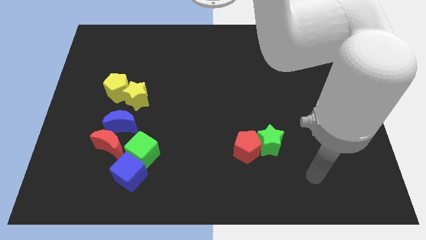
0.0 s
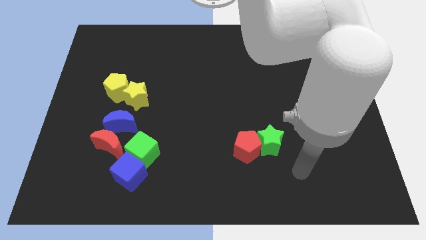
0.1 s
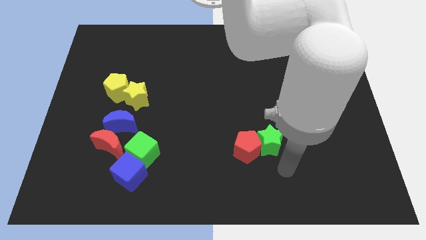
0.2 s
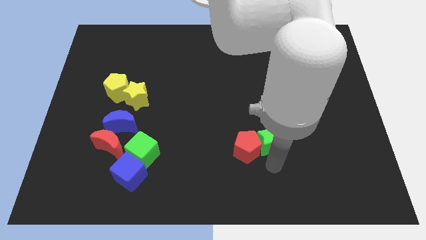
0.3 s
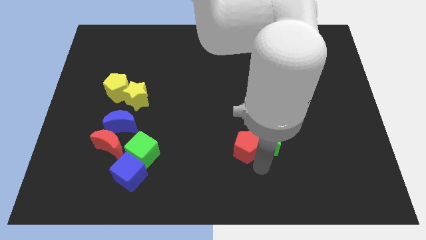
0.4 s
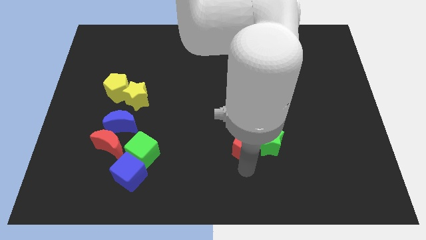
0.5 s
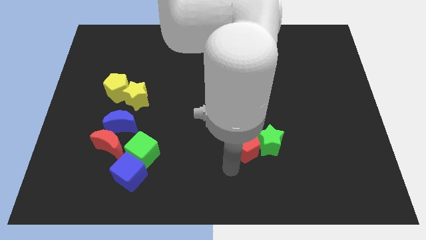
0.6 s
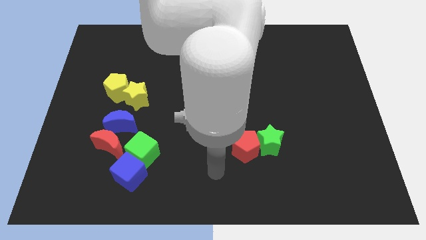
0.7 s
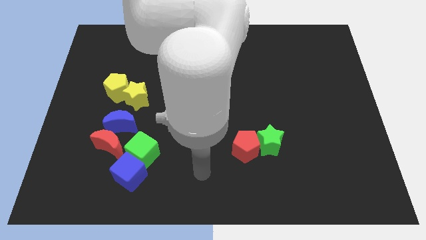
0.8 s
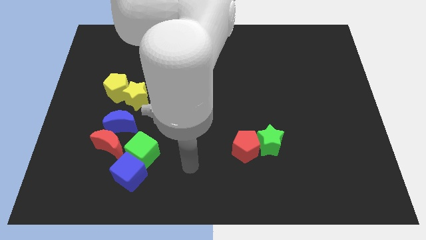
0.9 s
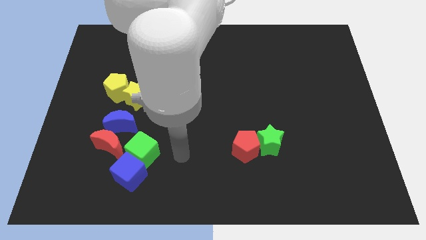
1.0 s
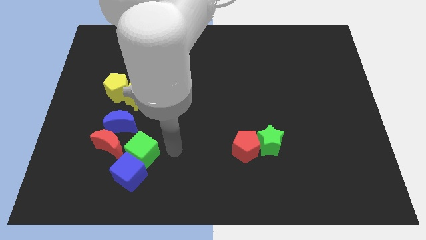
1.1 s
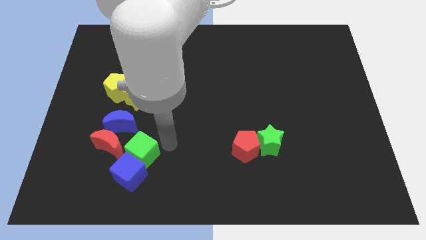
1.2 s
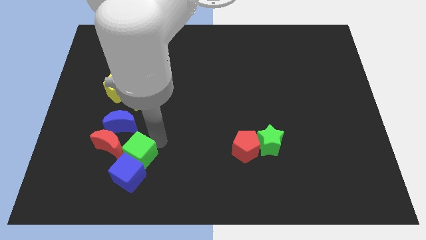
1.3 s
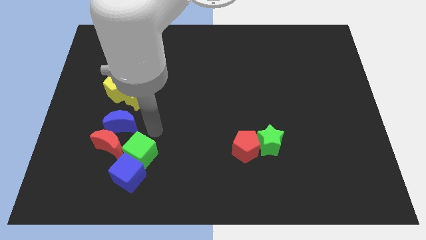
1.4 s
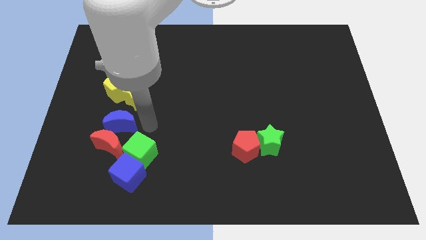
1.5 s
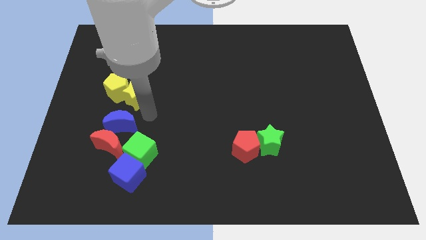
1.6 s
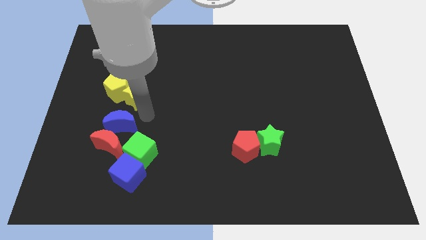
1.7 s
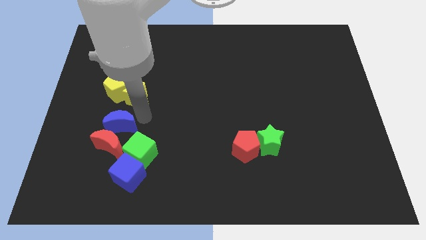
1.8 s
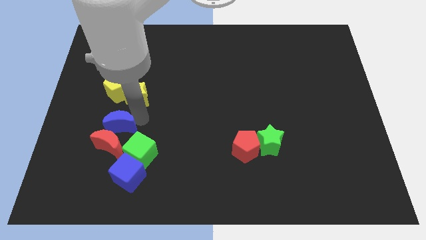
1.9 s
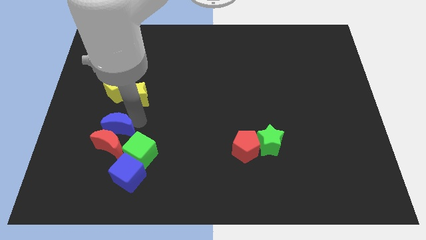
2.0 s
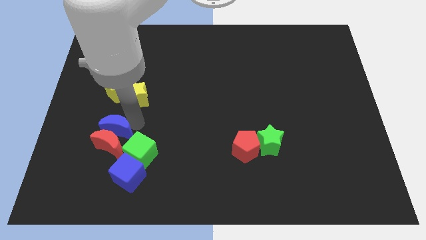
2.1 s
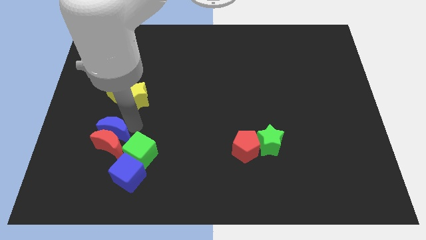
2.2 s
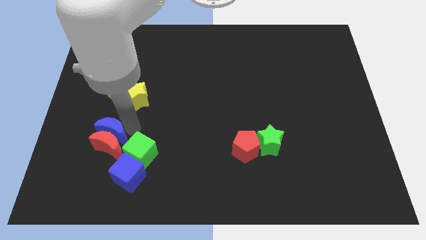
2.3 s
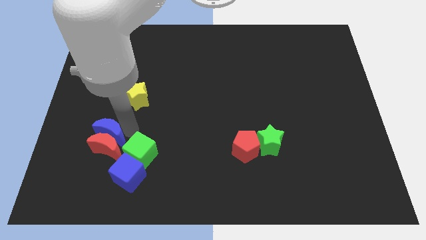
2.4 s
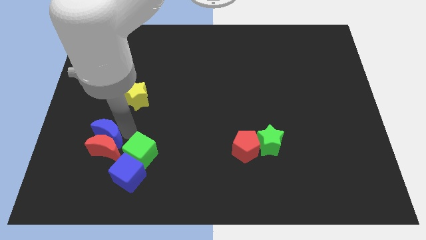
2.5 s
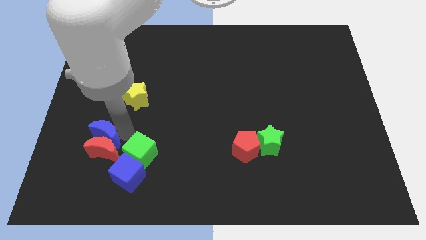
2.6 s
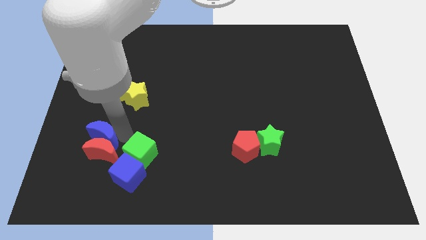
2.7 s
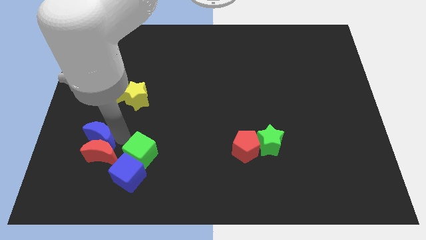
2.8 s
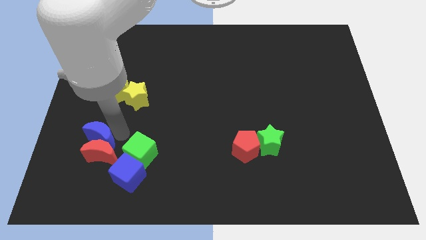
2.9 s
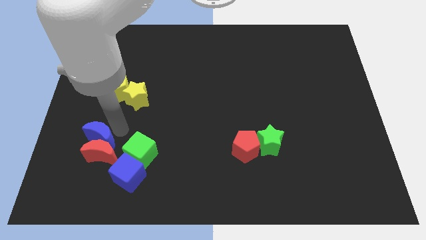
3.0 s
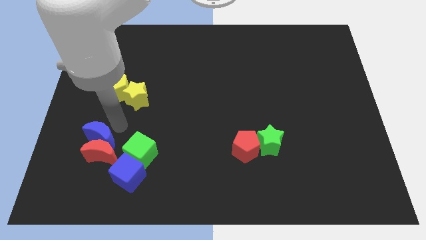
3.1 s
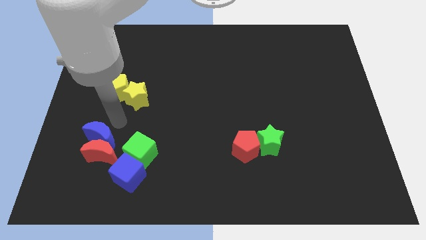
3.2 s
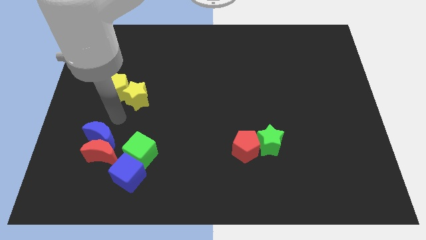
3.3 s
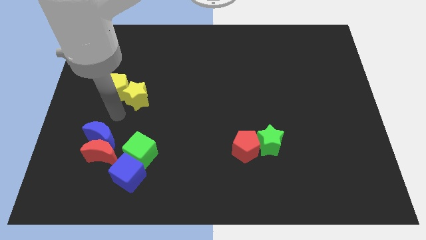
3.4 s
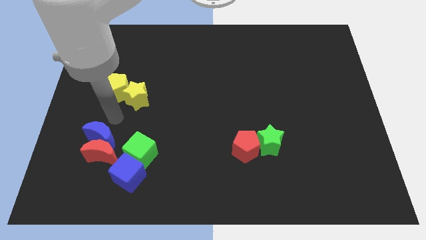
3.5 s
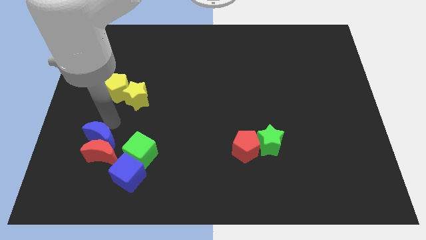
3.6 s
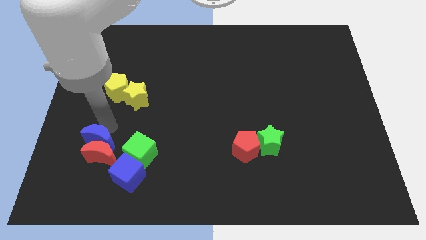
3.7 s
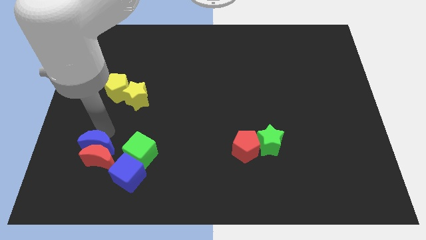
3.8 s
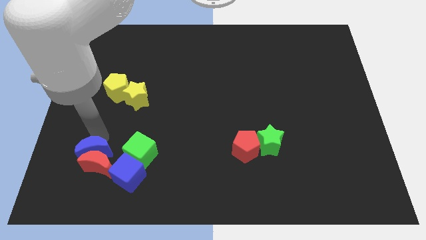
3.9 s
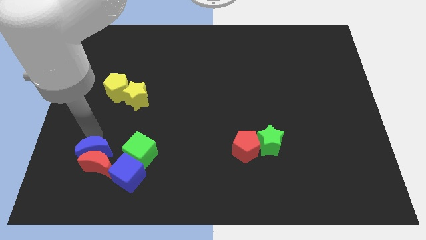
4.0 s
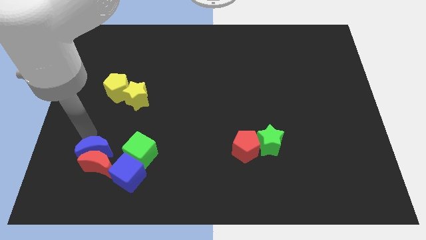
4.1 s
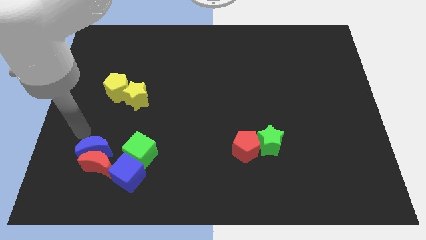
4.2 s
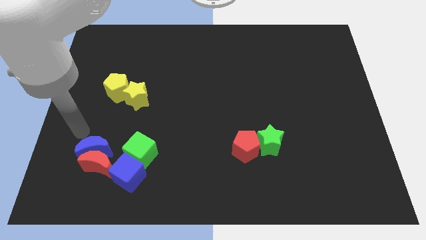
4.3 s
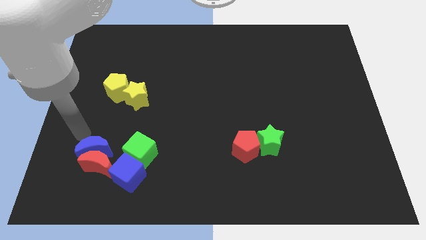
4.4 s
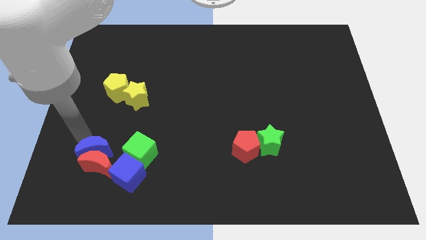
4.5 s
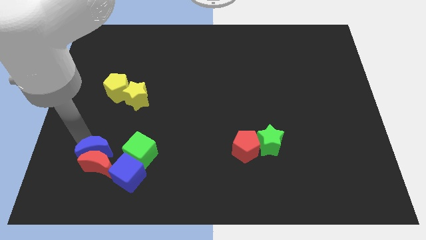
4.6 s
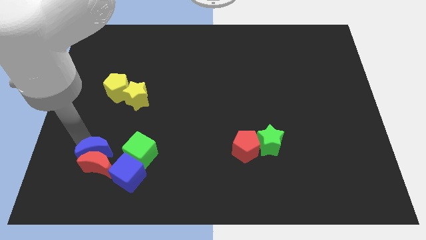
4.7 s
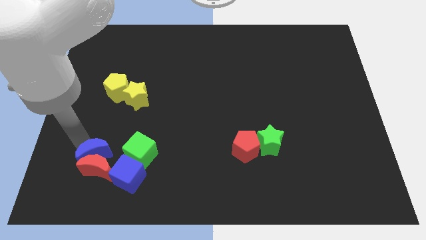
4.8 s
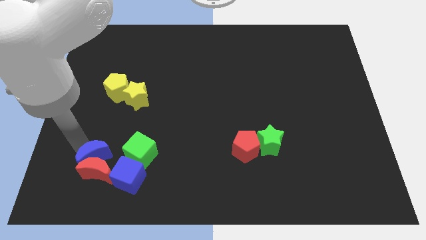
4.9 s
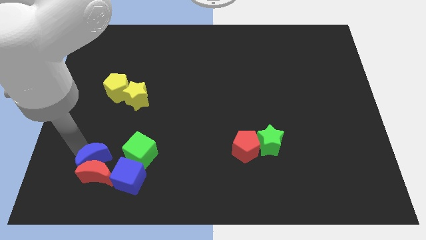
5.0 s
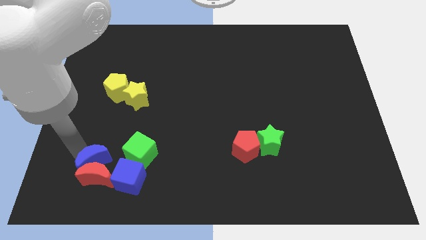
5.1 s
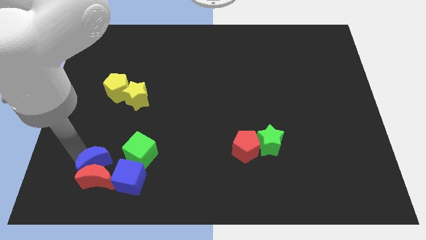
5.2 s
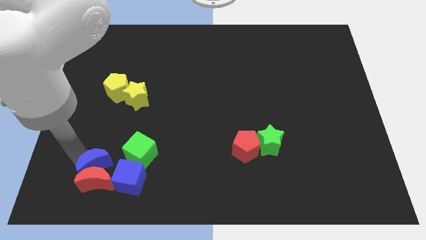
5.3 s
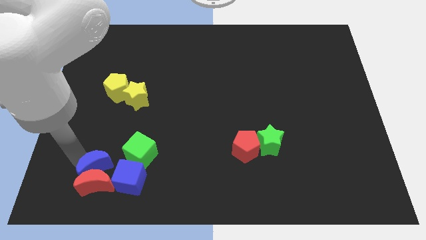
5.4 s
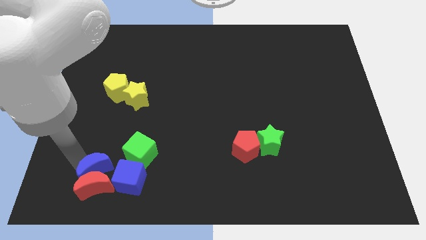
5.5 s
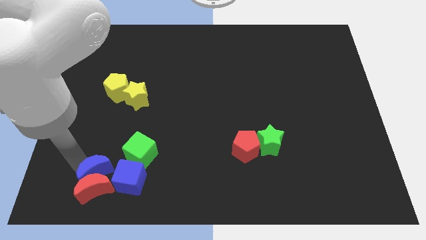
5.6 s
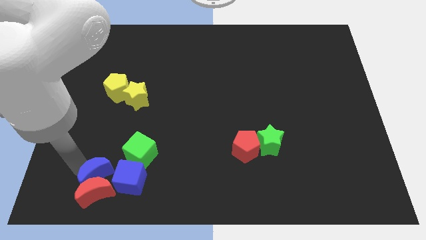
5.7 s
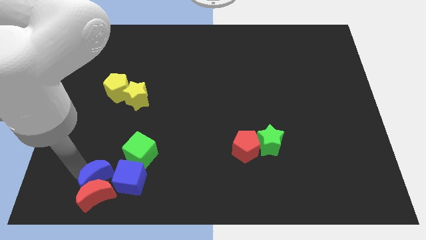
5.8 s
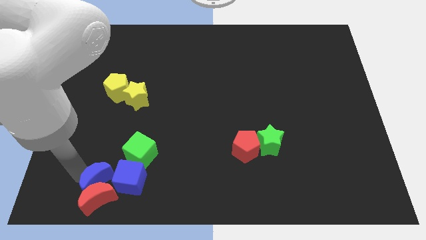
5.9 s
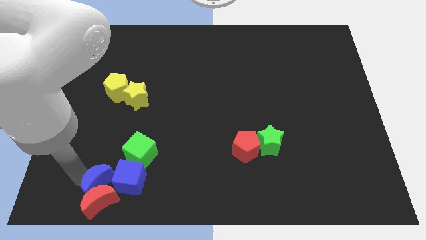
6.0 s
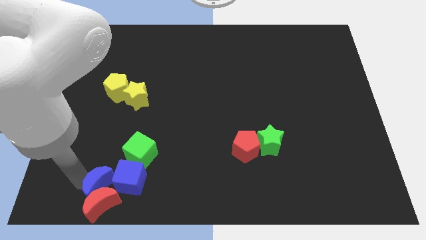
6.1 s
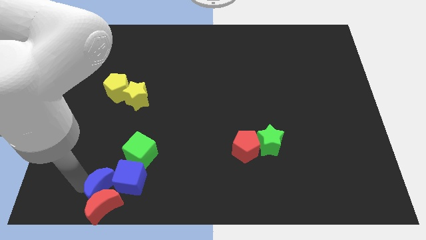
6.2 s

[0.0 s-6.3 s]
push the blue moon close to the blue cube

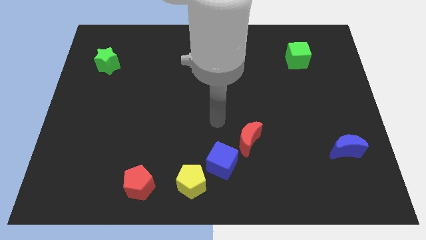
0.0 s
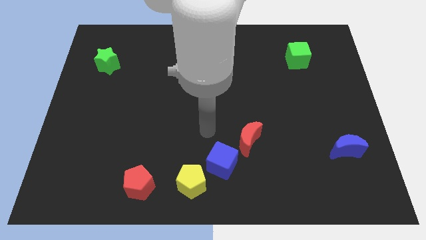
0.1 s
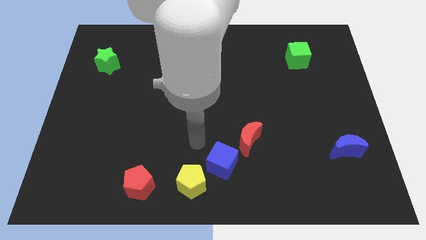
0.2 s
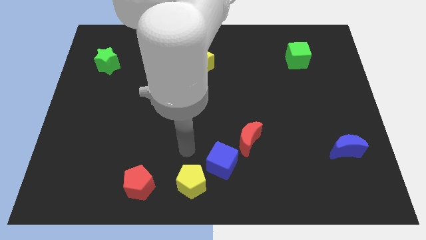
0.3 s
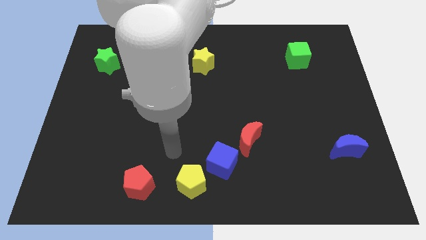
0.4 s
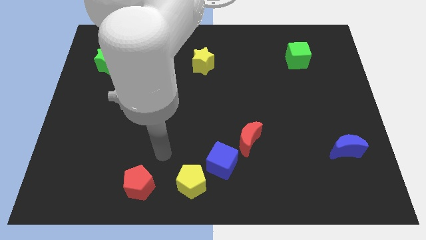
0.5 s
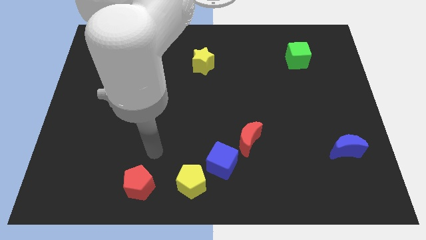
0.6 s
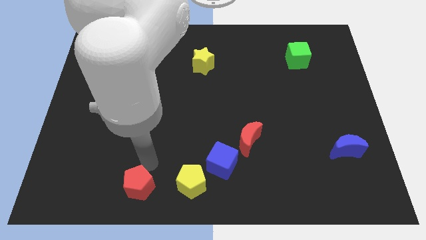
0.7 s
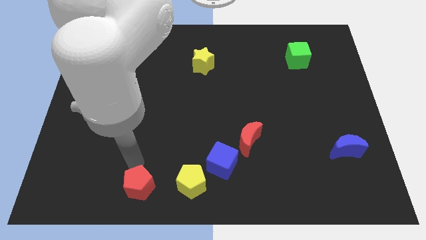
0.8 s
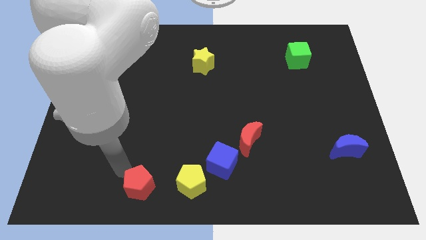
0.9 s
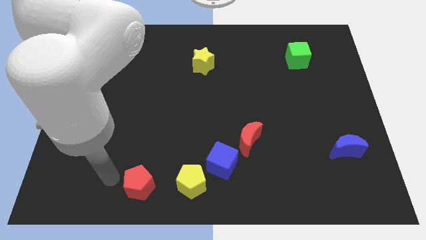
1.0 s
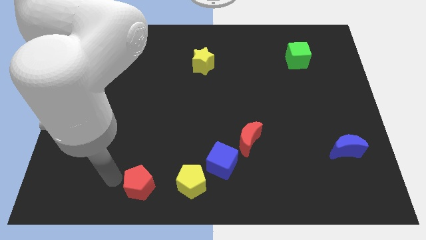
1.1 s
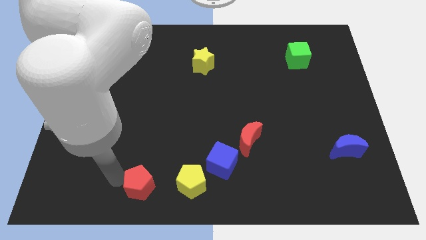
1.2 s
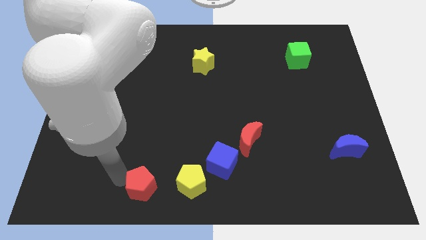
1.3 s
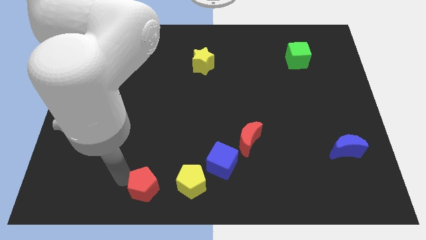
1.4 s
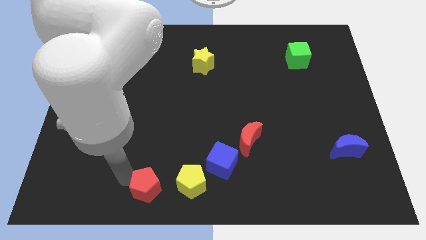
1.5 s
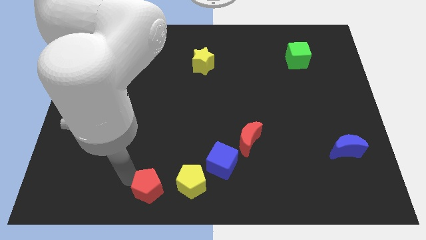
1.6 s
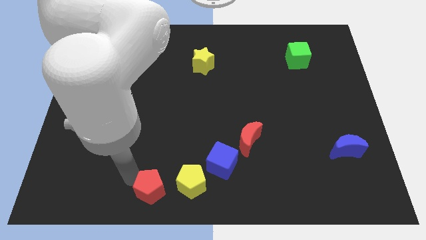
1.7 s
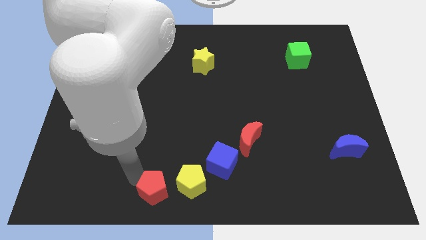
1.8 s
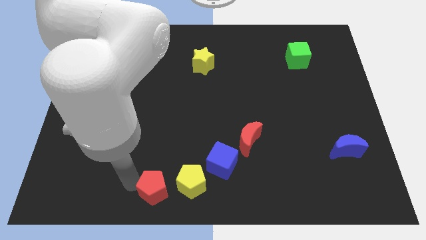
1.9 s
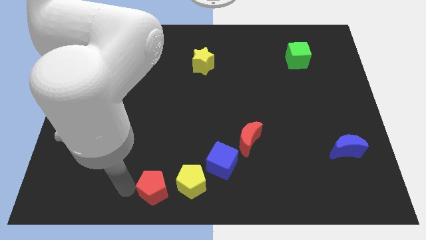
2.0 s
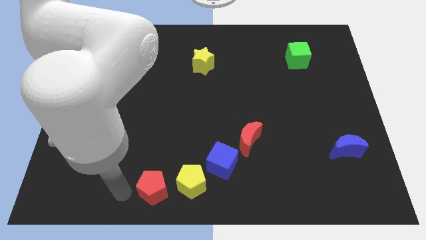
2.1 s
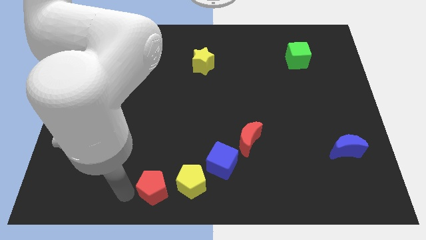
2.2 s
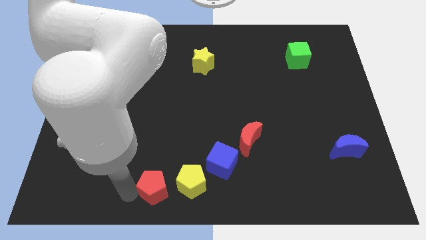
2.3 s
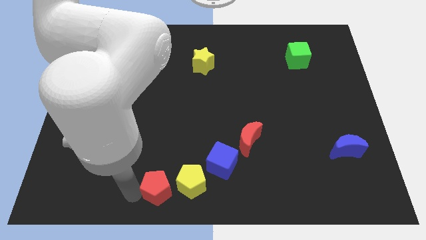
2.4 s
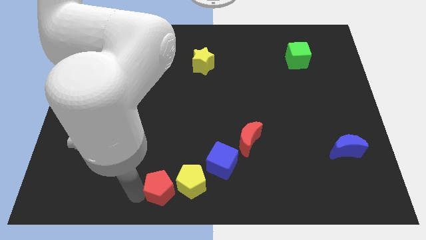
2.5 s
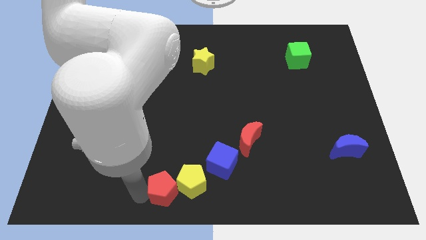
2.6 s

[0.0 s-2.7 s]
move the red pentagon close to the yellow pentagon
